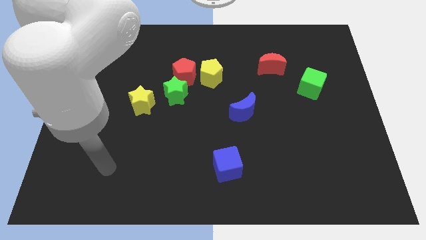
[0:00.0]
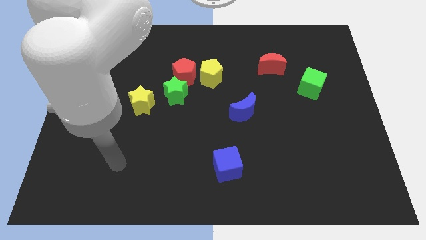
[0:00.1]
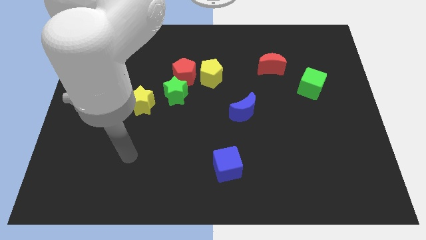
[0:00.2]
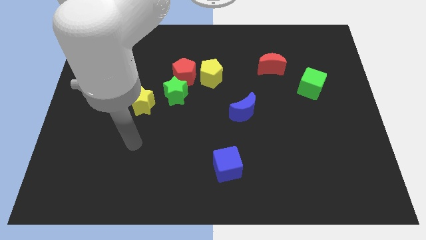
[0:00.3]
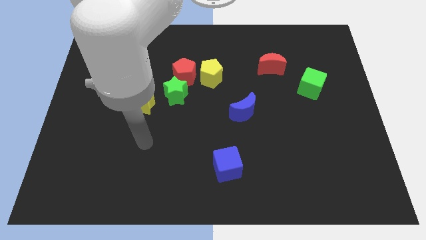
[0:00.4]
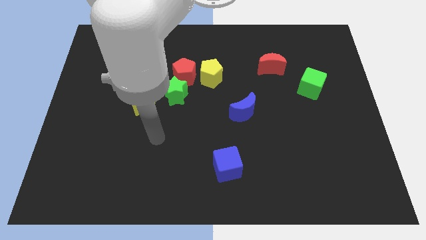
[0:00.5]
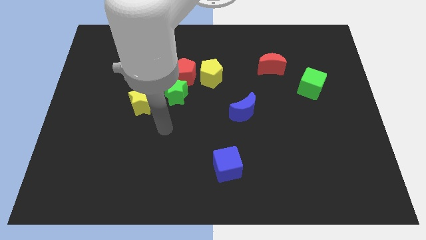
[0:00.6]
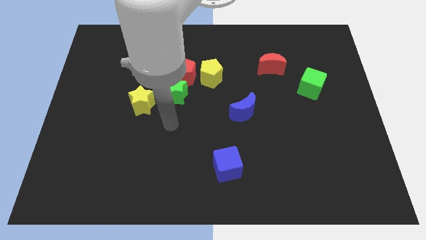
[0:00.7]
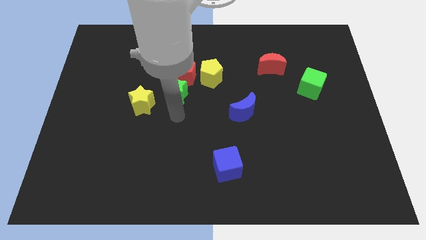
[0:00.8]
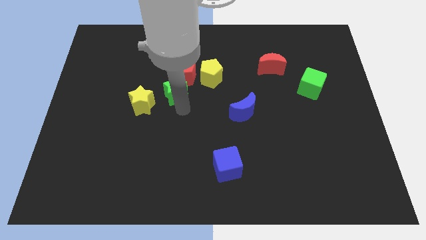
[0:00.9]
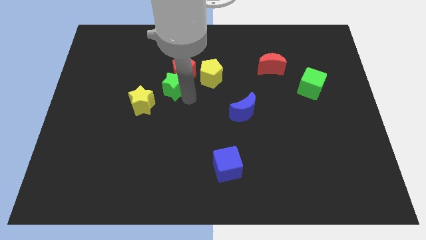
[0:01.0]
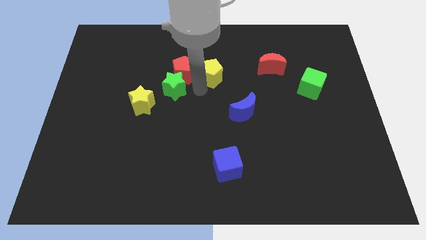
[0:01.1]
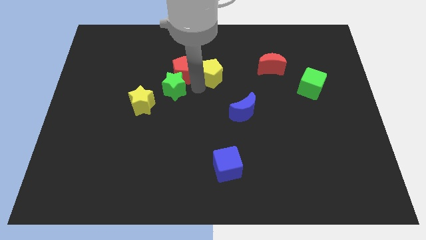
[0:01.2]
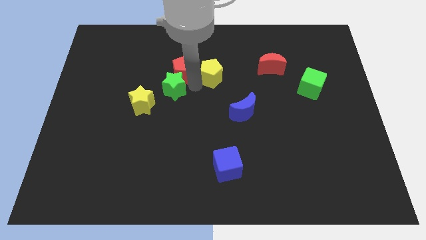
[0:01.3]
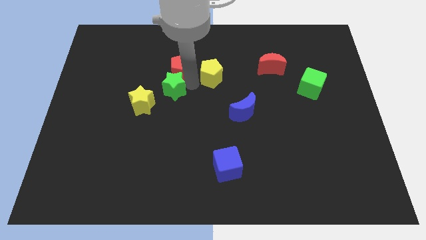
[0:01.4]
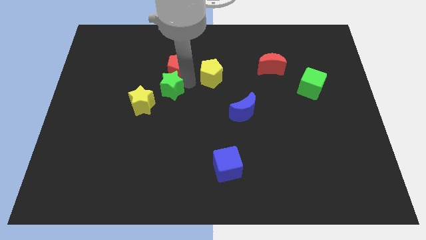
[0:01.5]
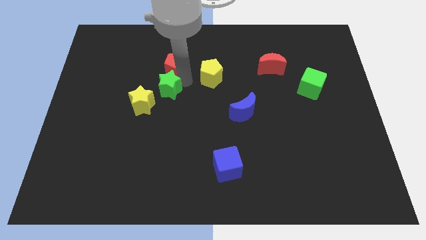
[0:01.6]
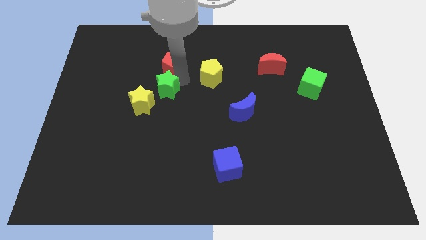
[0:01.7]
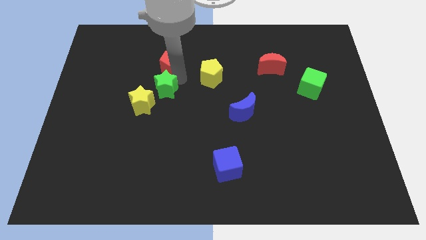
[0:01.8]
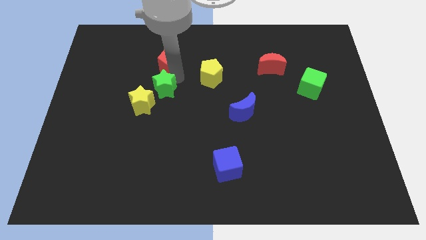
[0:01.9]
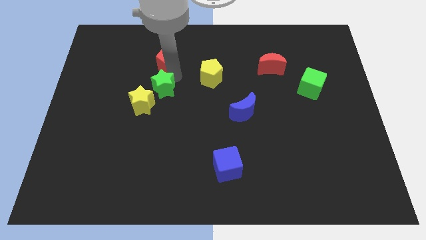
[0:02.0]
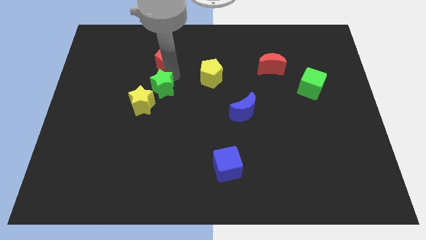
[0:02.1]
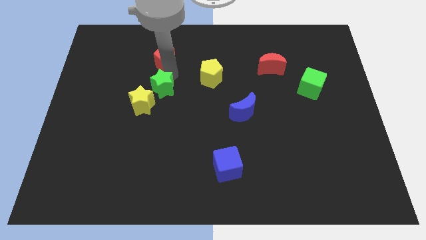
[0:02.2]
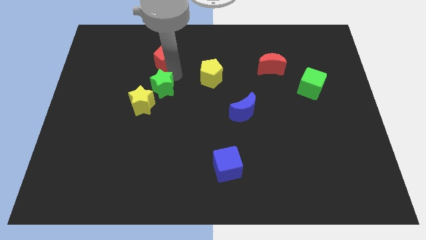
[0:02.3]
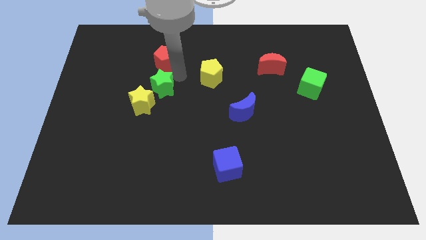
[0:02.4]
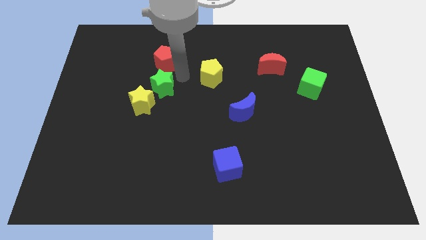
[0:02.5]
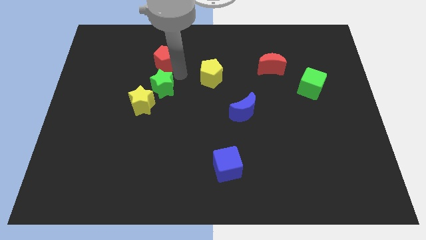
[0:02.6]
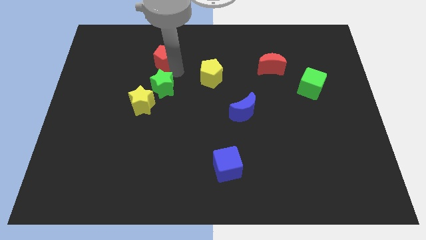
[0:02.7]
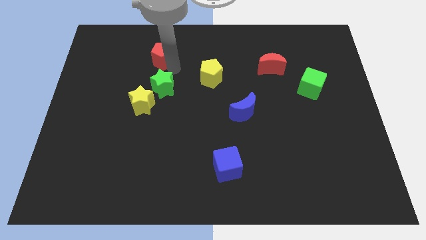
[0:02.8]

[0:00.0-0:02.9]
separate the red pentagon from the yellow pentagon and green star

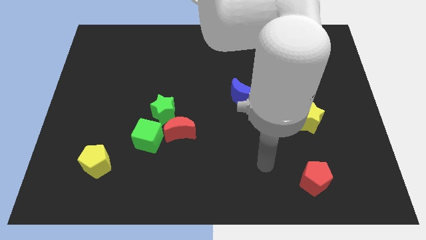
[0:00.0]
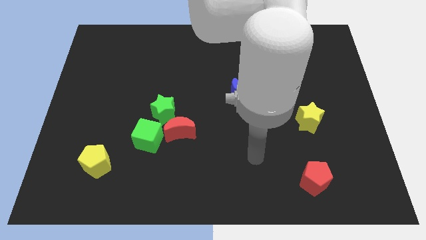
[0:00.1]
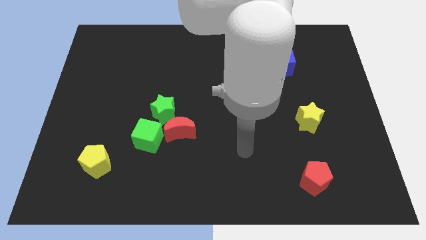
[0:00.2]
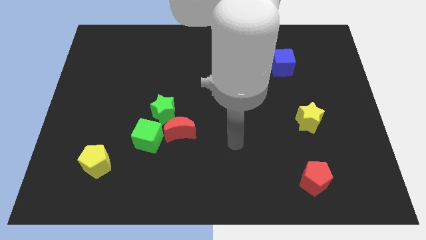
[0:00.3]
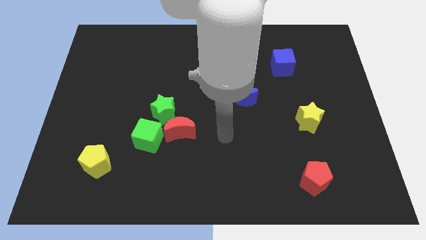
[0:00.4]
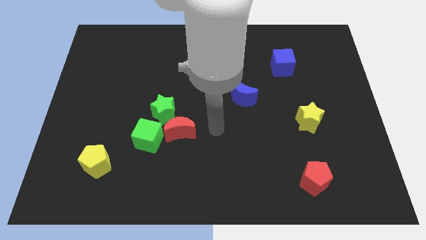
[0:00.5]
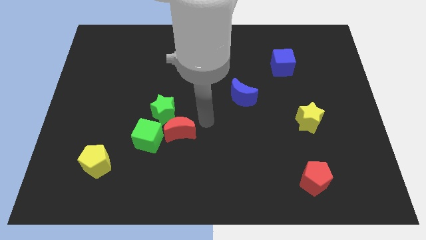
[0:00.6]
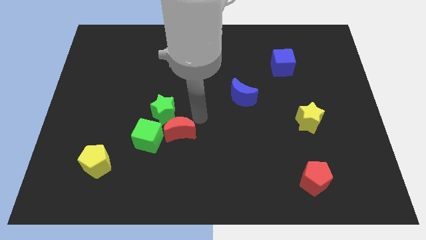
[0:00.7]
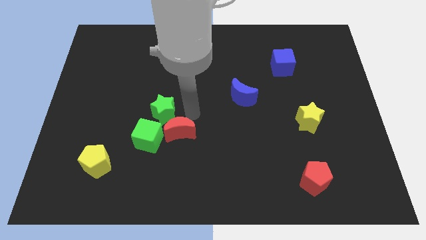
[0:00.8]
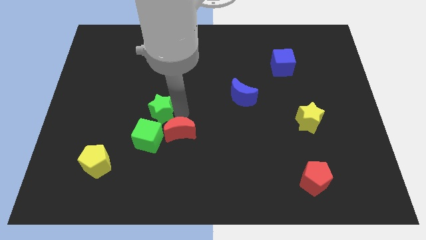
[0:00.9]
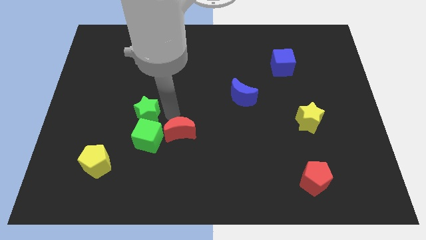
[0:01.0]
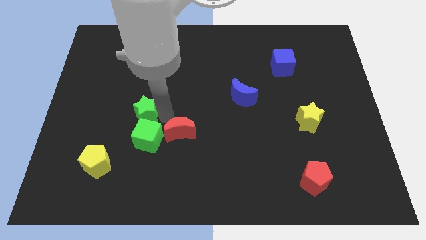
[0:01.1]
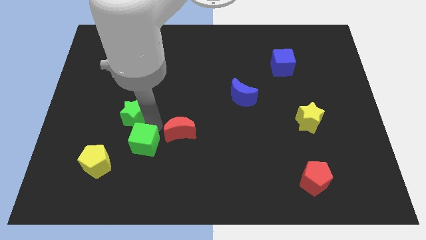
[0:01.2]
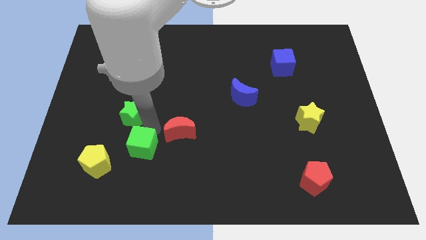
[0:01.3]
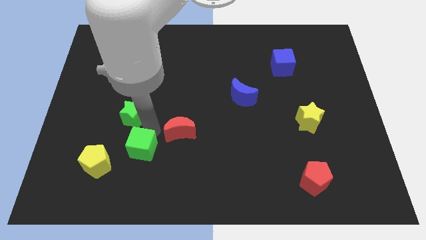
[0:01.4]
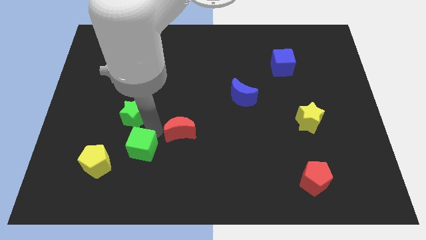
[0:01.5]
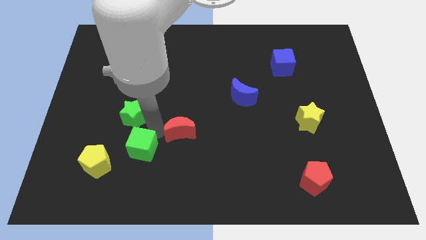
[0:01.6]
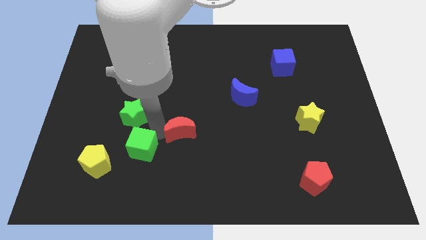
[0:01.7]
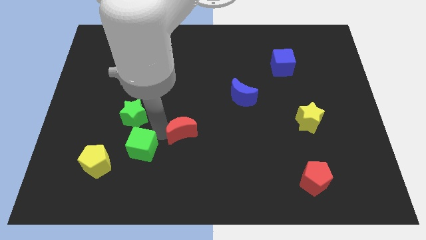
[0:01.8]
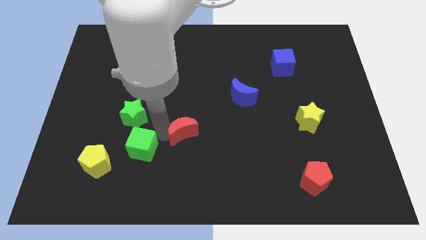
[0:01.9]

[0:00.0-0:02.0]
move the red moon away from the green star and green cube

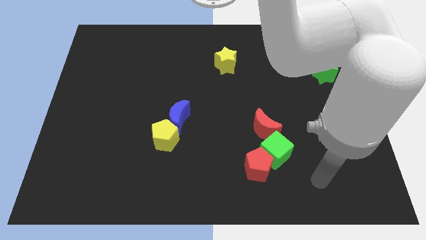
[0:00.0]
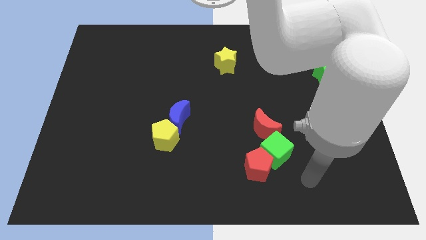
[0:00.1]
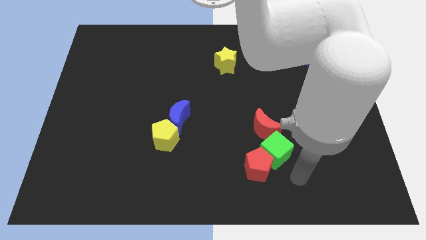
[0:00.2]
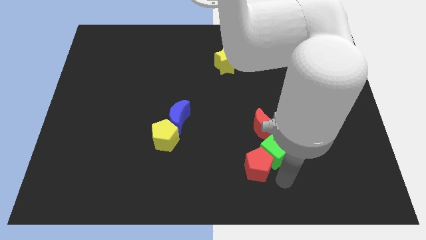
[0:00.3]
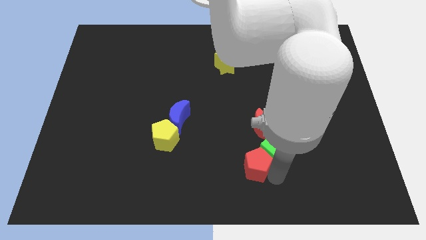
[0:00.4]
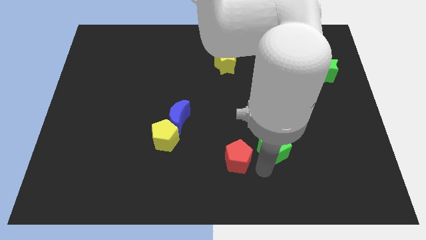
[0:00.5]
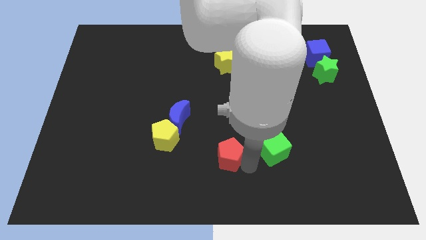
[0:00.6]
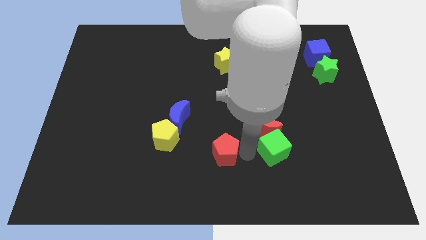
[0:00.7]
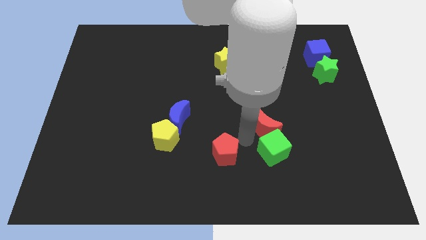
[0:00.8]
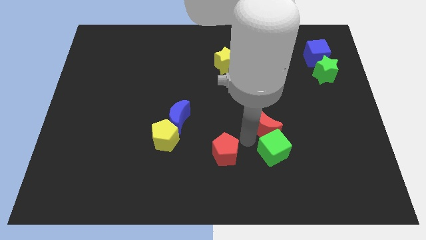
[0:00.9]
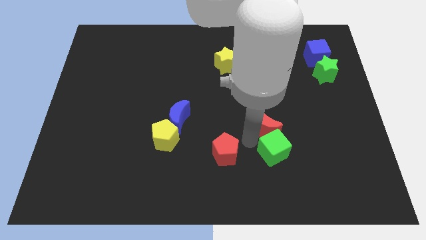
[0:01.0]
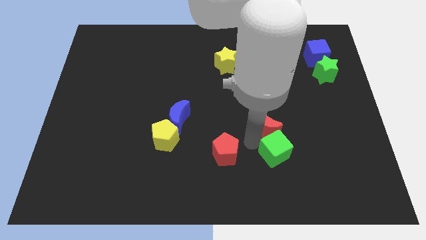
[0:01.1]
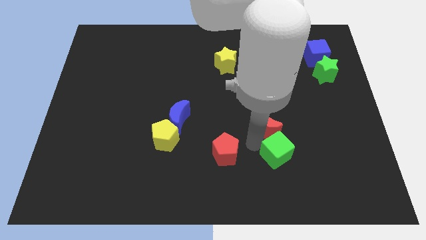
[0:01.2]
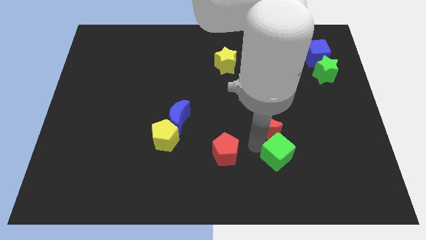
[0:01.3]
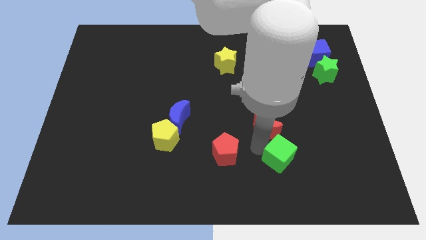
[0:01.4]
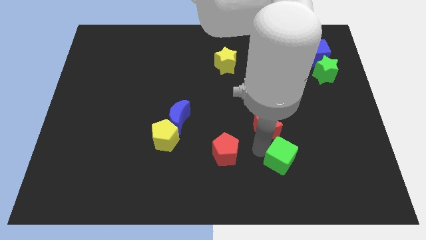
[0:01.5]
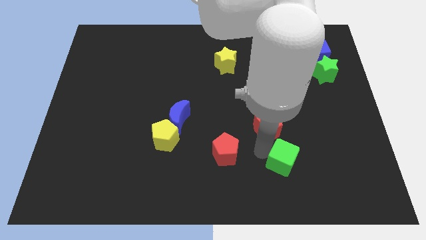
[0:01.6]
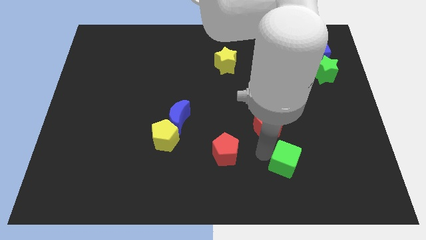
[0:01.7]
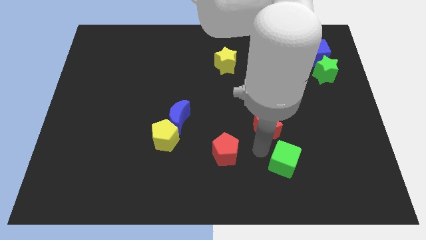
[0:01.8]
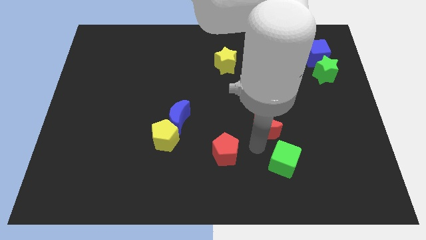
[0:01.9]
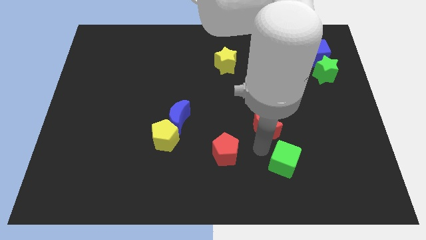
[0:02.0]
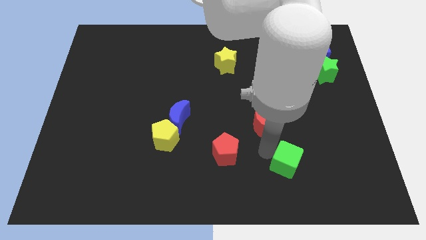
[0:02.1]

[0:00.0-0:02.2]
move the green cube away from the red pentagon and red moon

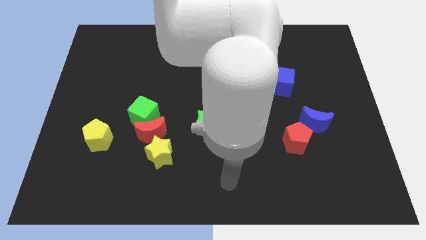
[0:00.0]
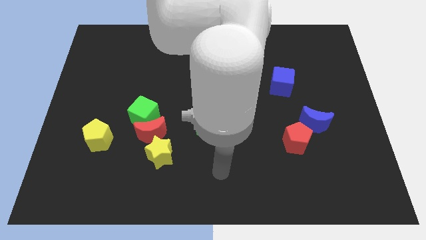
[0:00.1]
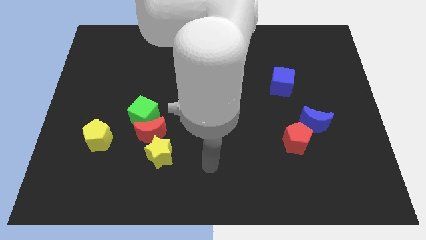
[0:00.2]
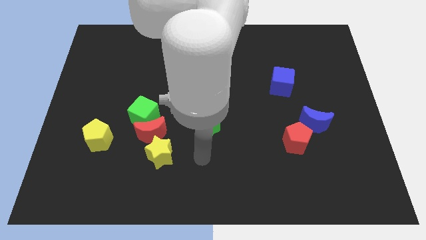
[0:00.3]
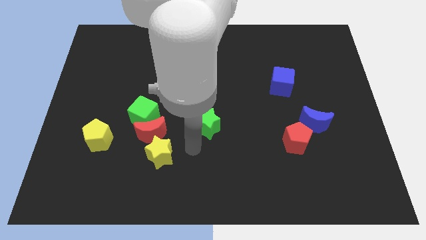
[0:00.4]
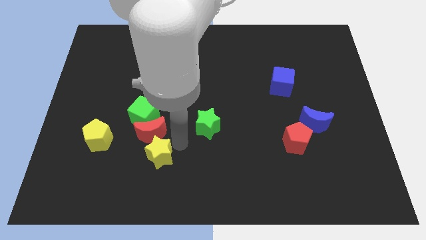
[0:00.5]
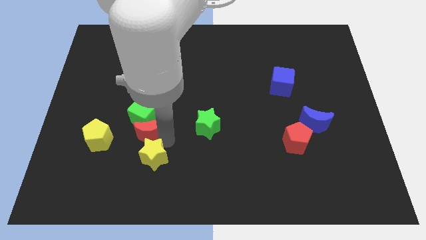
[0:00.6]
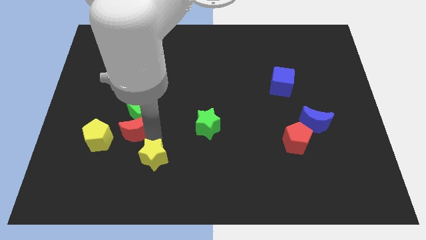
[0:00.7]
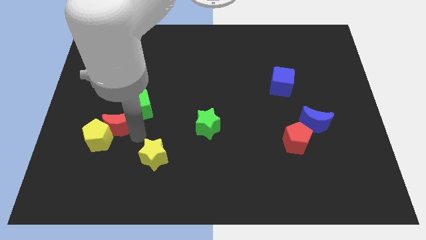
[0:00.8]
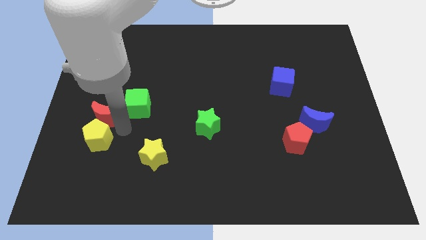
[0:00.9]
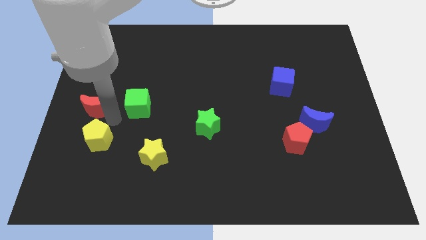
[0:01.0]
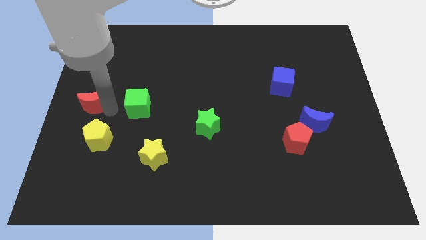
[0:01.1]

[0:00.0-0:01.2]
move the green cube away from the red moon

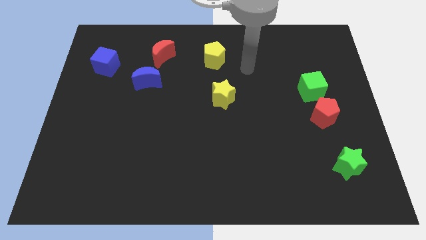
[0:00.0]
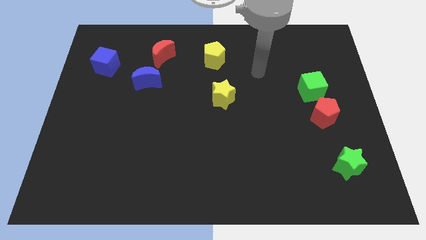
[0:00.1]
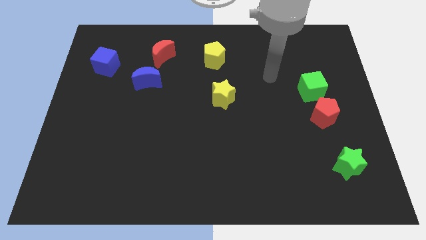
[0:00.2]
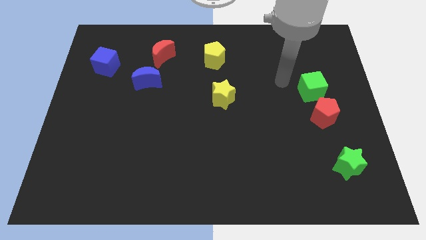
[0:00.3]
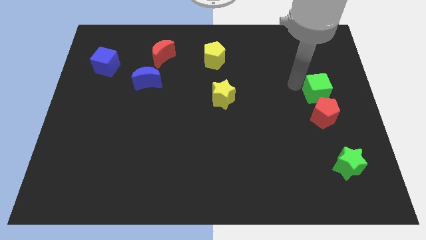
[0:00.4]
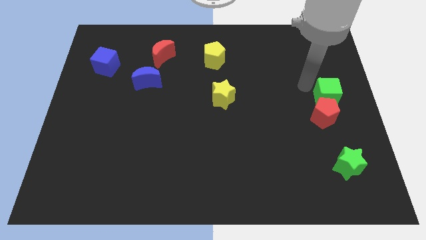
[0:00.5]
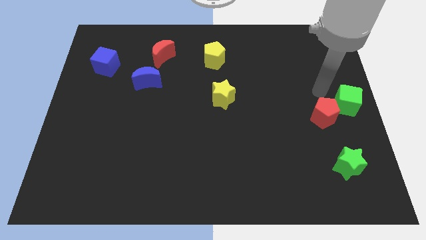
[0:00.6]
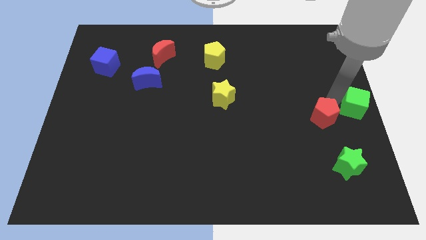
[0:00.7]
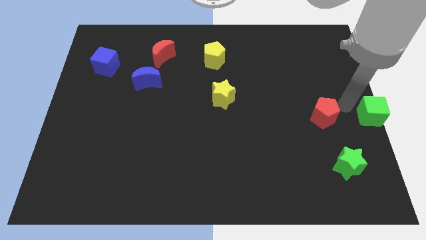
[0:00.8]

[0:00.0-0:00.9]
separate the red pentagon from the green cube

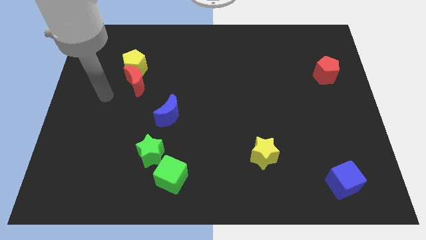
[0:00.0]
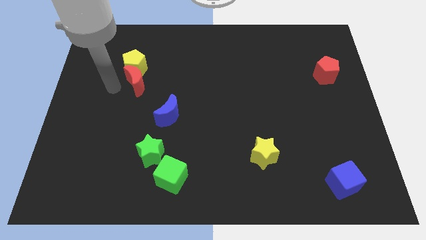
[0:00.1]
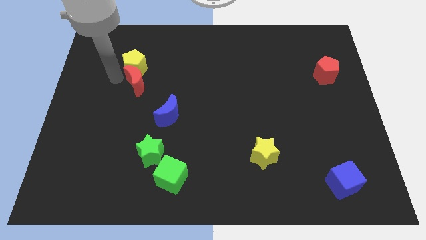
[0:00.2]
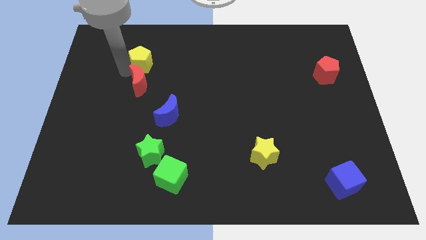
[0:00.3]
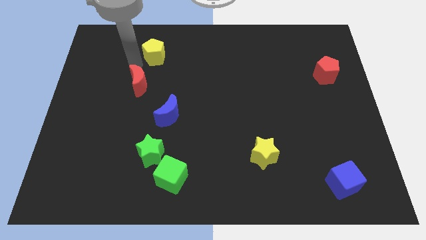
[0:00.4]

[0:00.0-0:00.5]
pull the red moon apart from the yellow pentagon
